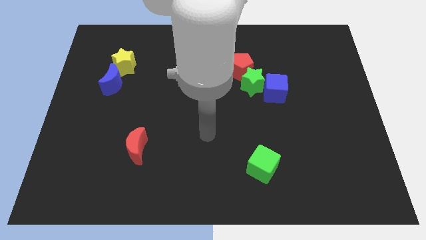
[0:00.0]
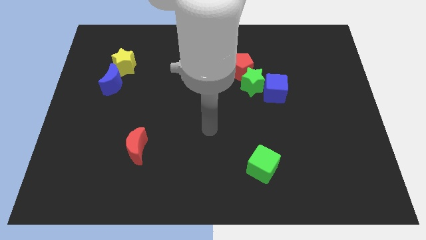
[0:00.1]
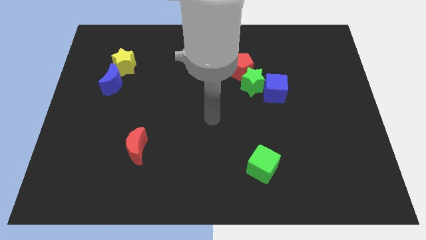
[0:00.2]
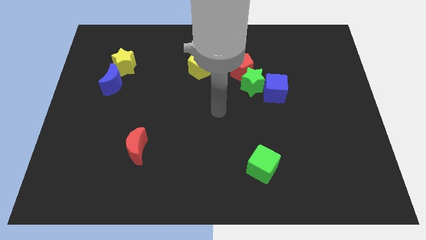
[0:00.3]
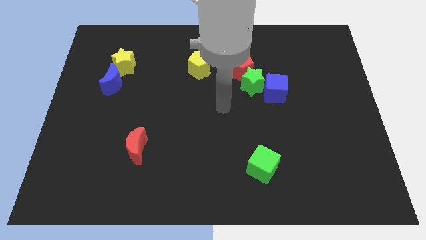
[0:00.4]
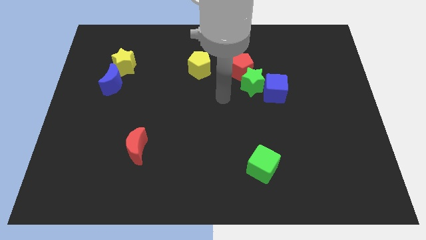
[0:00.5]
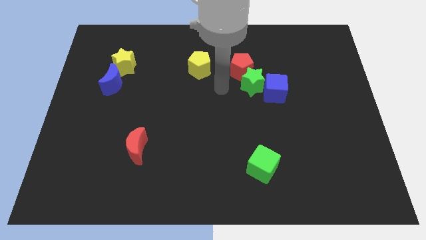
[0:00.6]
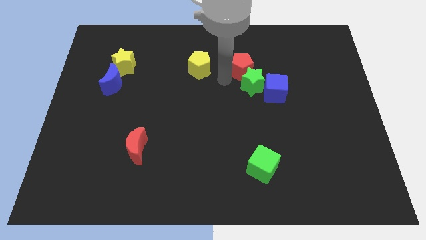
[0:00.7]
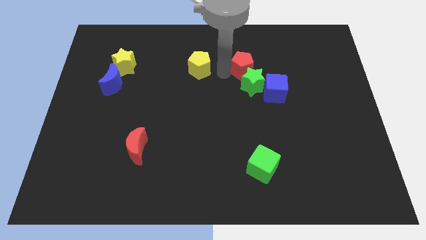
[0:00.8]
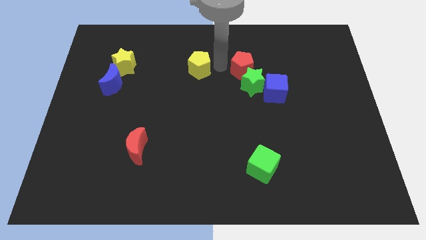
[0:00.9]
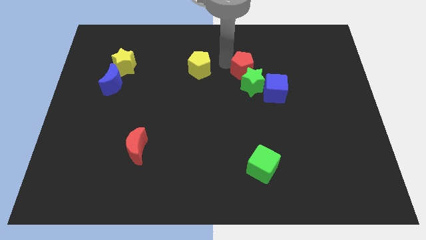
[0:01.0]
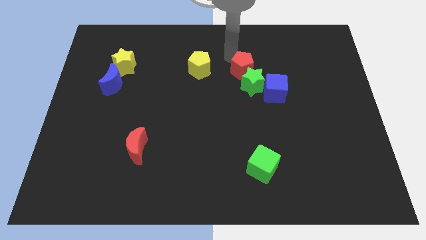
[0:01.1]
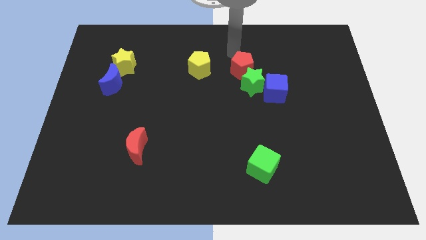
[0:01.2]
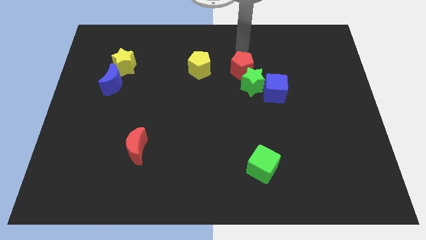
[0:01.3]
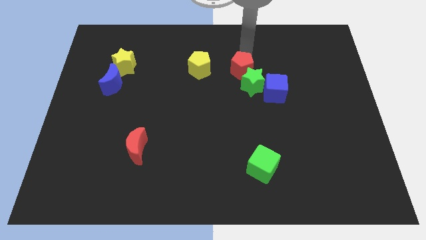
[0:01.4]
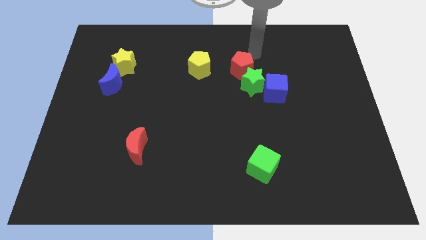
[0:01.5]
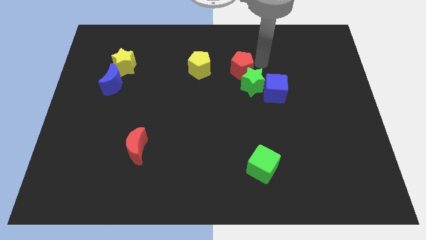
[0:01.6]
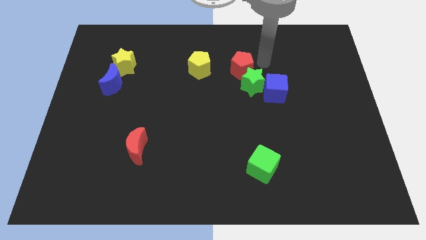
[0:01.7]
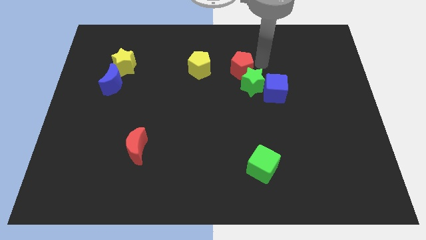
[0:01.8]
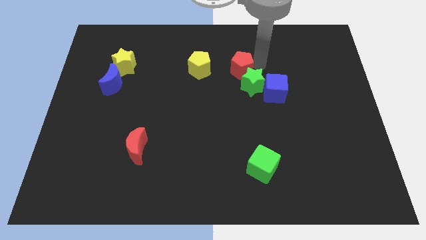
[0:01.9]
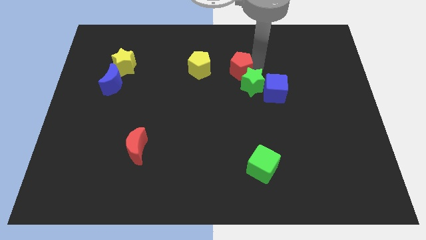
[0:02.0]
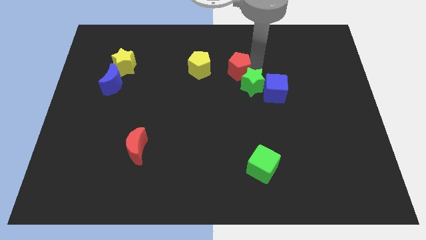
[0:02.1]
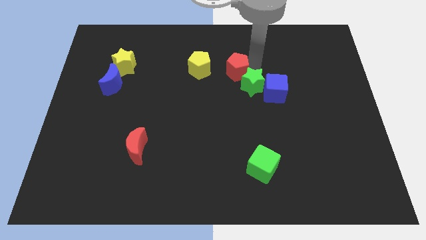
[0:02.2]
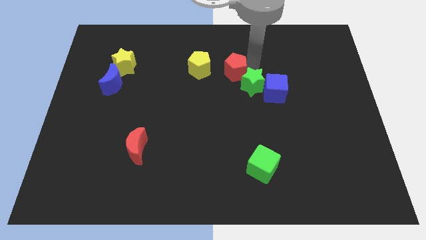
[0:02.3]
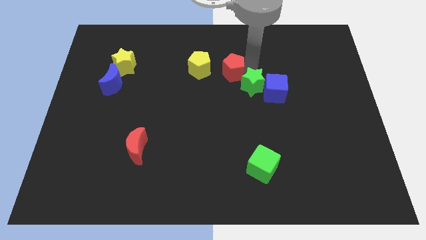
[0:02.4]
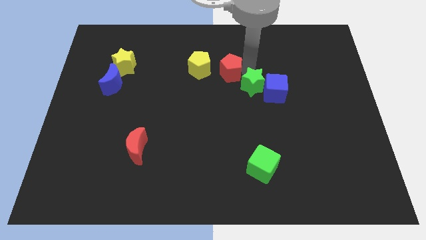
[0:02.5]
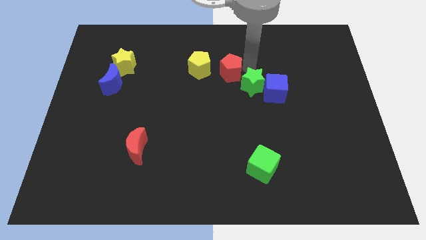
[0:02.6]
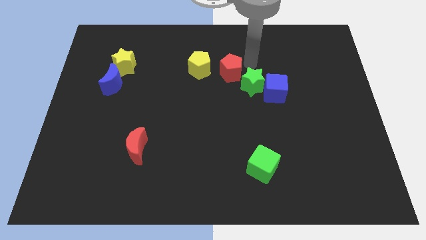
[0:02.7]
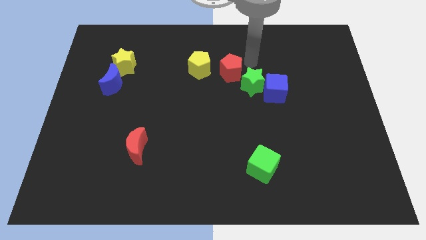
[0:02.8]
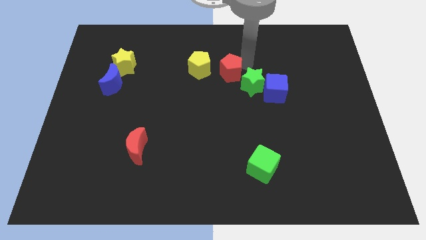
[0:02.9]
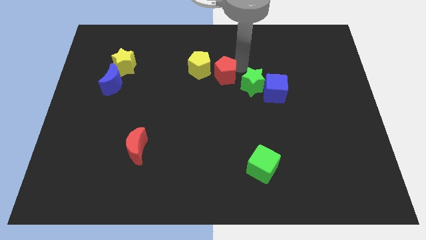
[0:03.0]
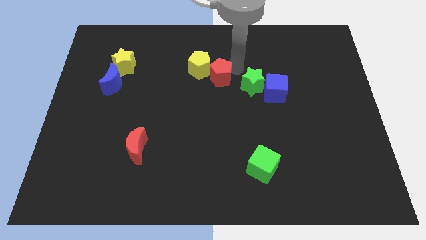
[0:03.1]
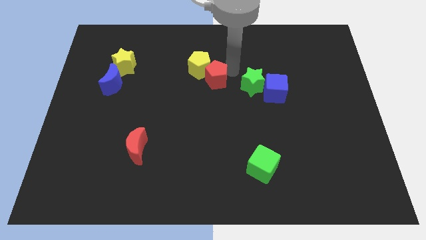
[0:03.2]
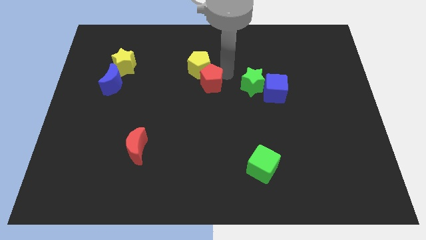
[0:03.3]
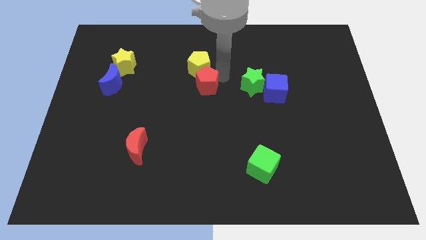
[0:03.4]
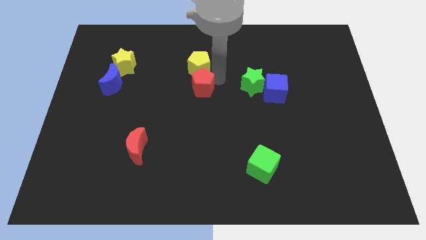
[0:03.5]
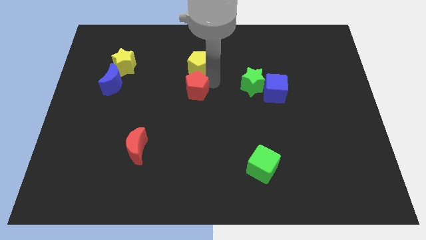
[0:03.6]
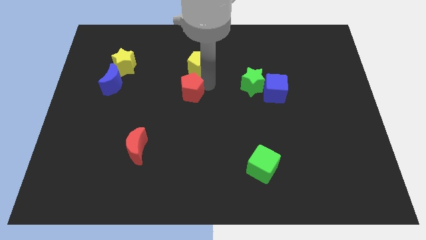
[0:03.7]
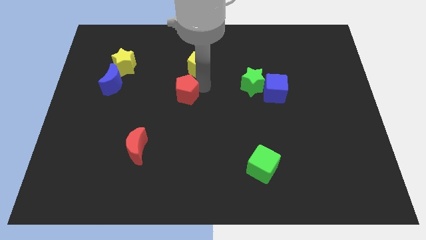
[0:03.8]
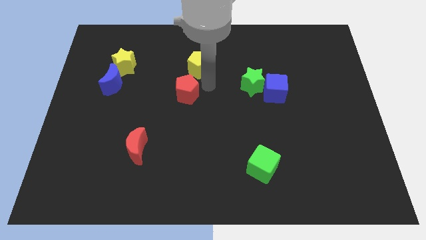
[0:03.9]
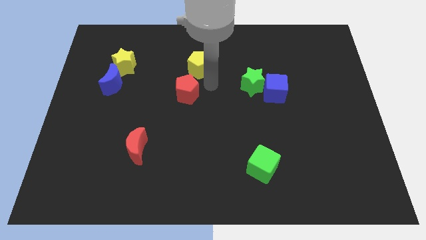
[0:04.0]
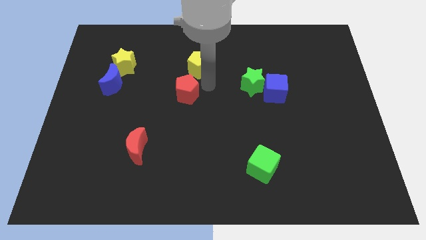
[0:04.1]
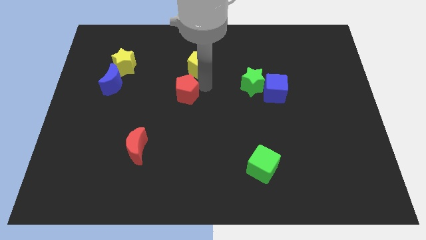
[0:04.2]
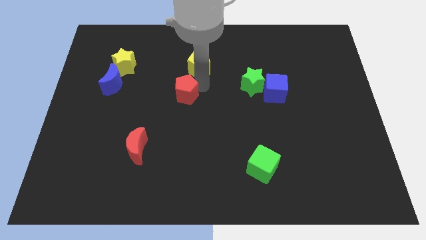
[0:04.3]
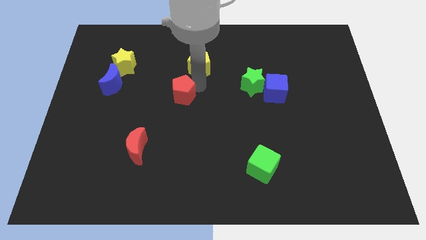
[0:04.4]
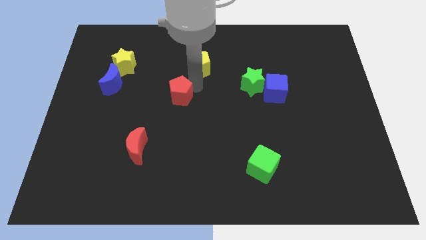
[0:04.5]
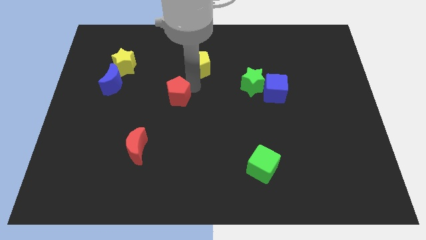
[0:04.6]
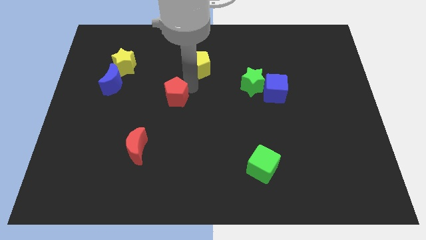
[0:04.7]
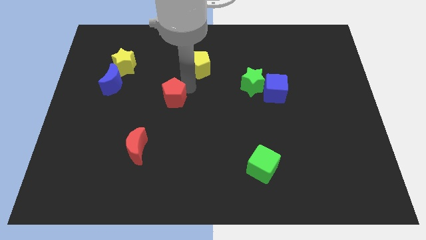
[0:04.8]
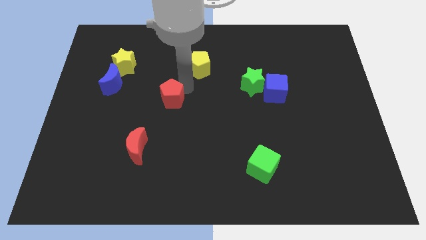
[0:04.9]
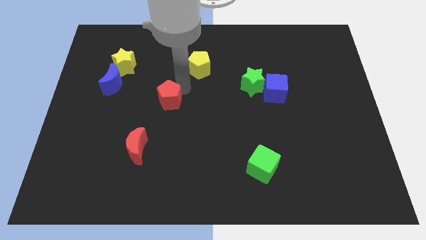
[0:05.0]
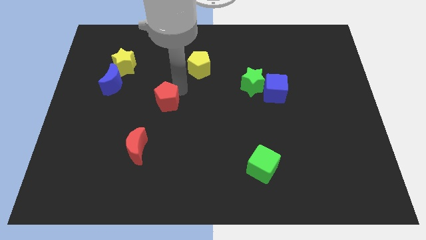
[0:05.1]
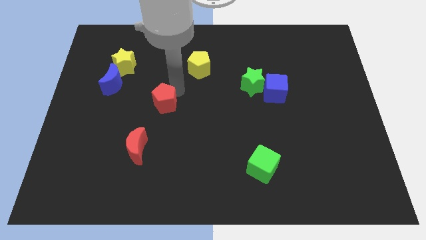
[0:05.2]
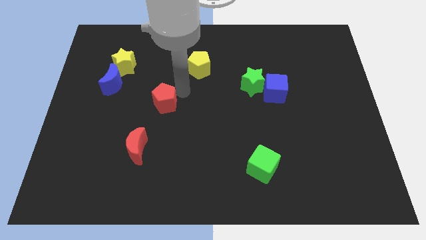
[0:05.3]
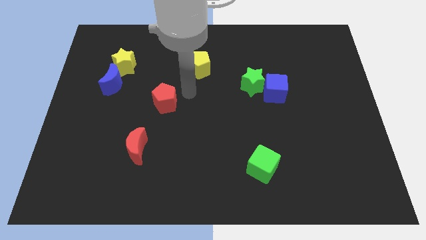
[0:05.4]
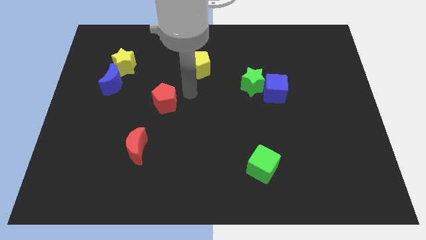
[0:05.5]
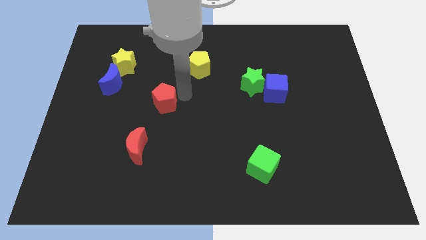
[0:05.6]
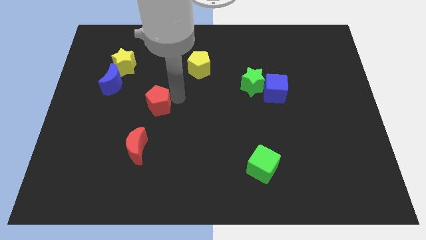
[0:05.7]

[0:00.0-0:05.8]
put the red pentagon above the red moon
